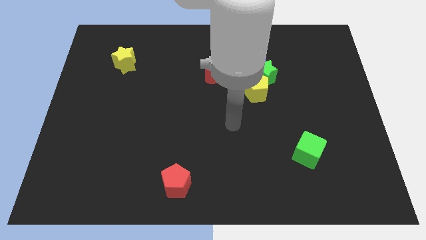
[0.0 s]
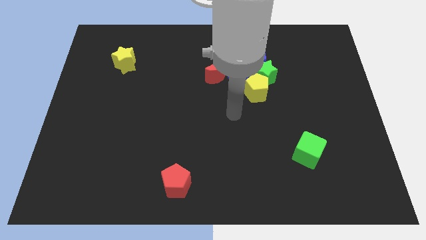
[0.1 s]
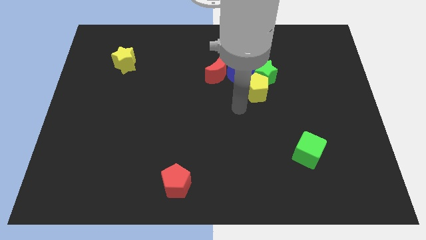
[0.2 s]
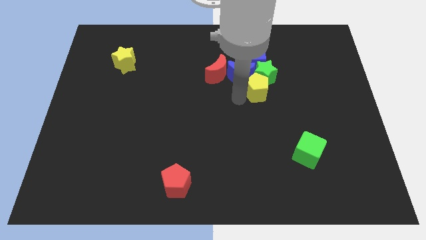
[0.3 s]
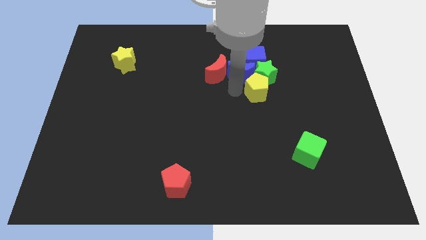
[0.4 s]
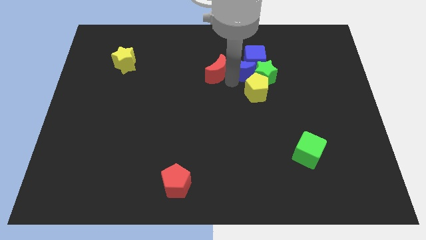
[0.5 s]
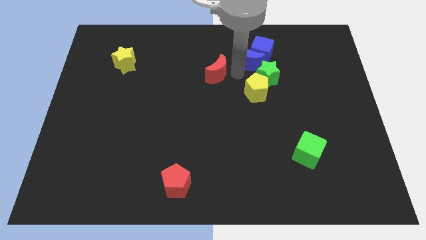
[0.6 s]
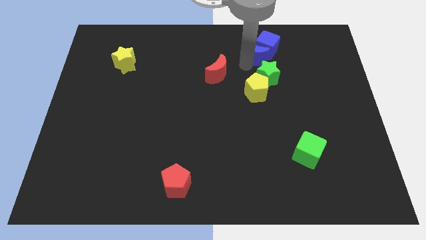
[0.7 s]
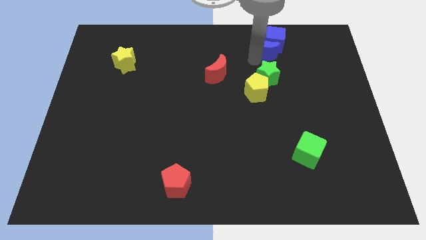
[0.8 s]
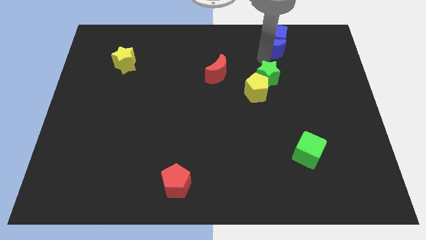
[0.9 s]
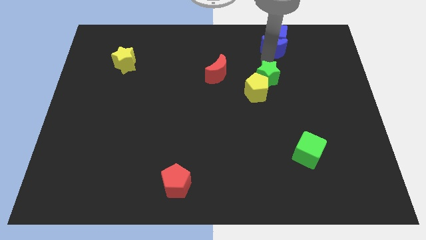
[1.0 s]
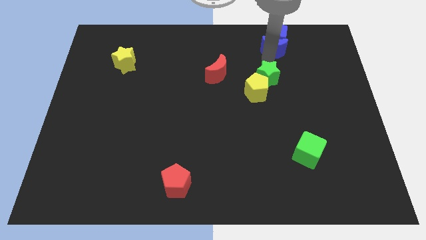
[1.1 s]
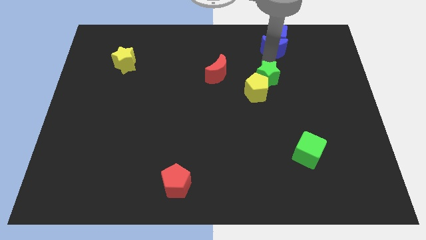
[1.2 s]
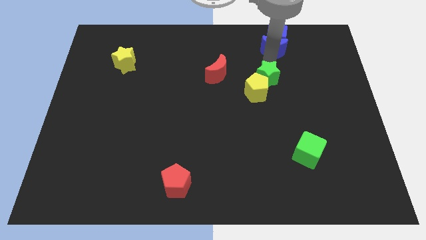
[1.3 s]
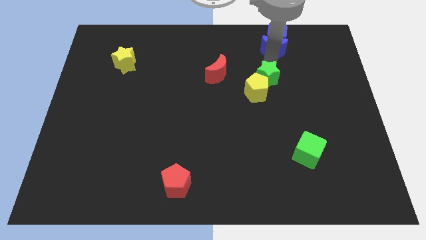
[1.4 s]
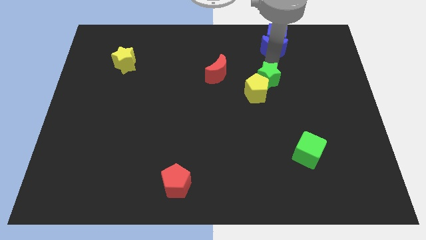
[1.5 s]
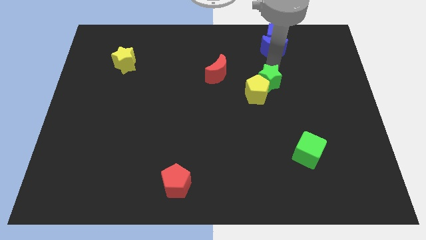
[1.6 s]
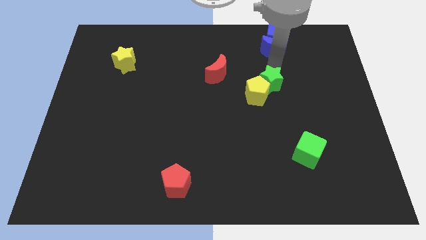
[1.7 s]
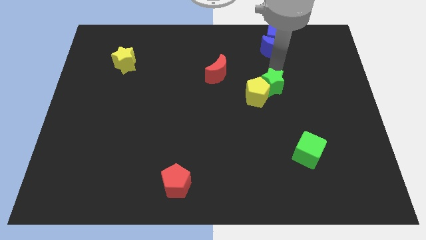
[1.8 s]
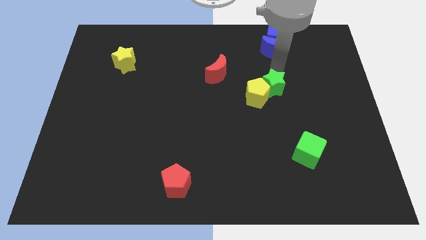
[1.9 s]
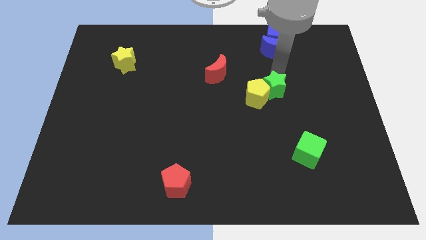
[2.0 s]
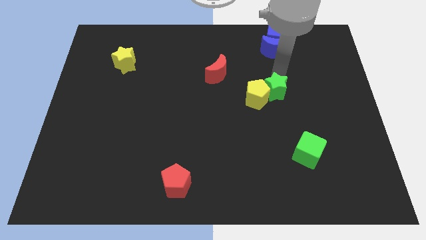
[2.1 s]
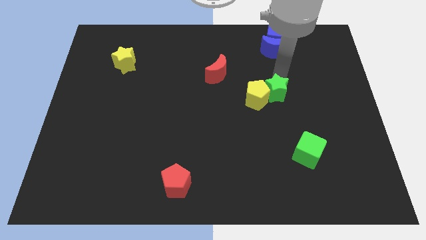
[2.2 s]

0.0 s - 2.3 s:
move the green star away from the yellow pentagon, blue cube, and blue moon

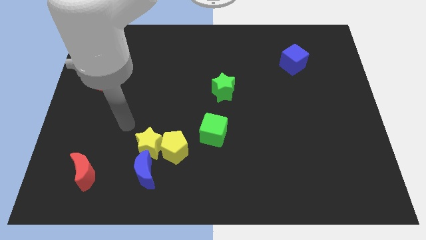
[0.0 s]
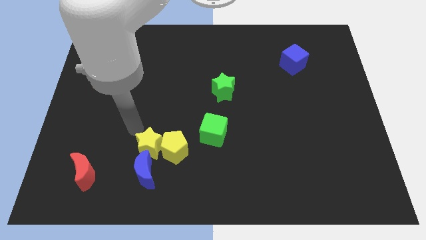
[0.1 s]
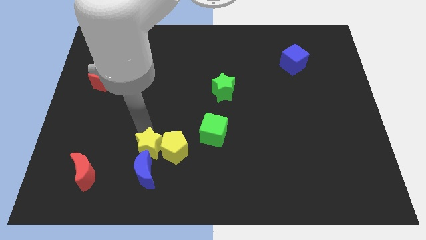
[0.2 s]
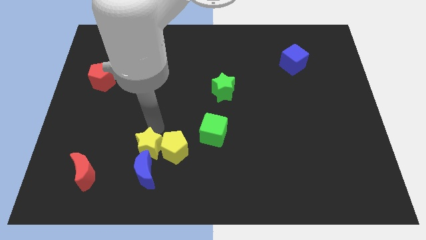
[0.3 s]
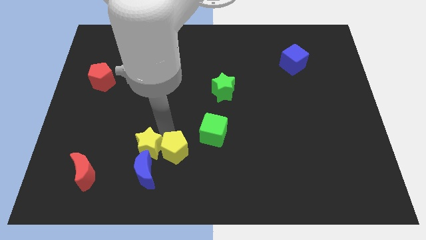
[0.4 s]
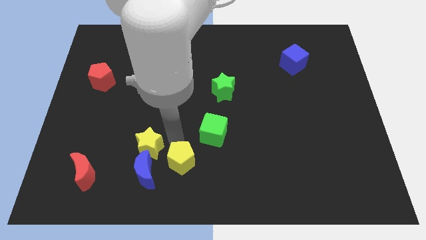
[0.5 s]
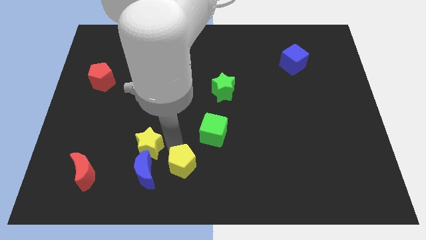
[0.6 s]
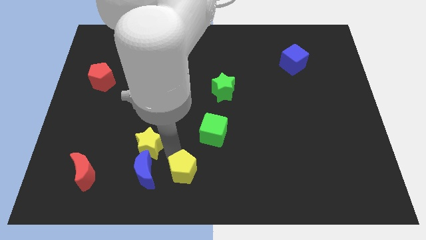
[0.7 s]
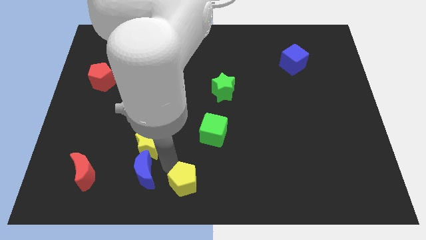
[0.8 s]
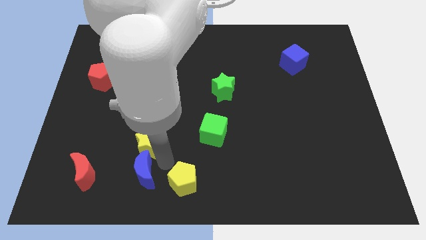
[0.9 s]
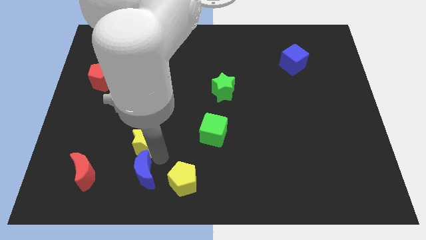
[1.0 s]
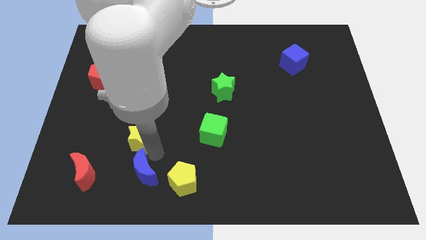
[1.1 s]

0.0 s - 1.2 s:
separate the yellow star from the yellow pentagon and blue moon

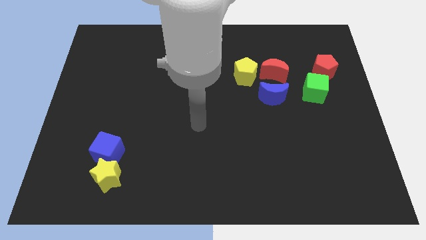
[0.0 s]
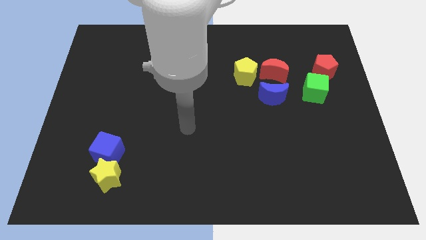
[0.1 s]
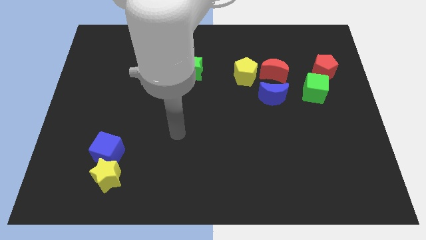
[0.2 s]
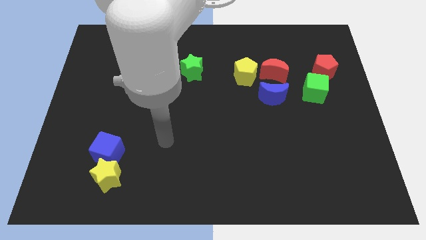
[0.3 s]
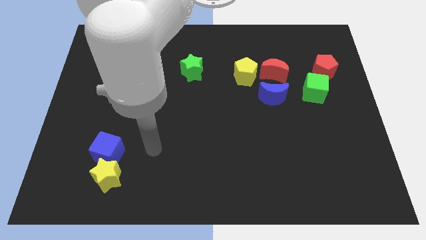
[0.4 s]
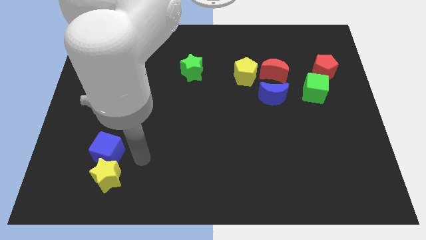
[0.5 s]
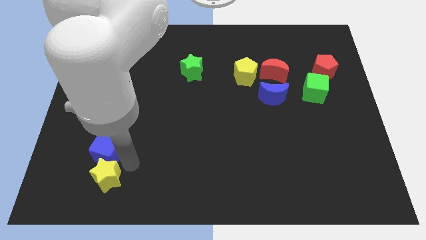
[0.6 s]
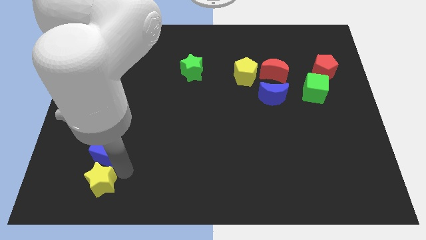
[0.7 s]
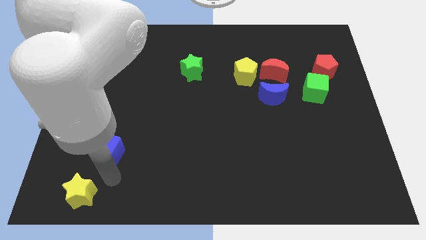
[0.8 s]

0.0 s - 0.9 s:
pull the blue cube apart from the yellow star

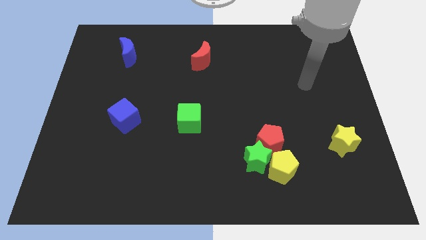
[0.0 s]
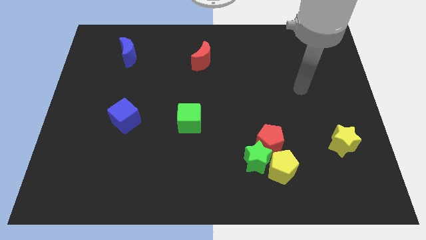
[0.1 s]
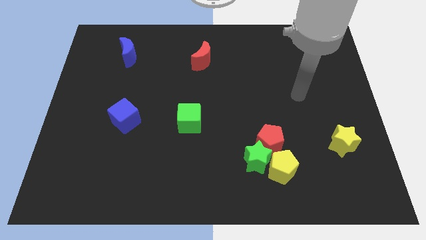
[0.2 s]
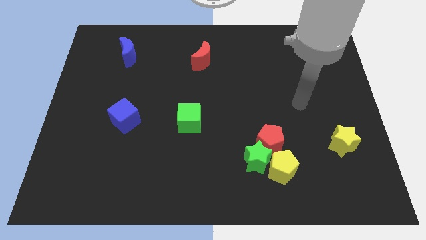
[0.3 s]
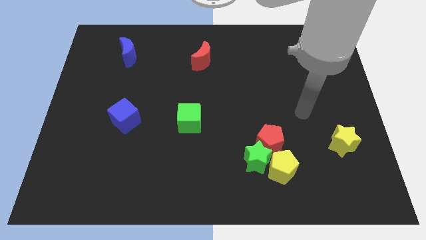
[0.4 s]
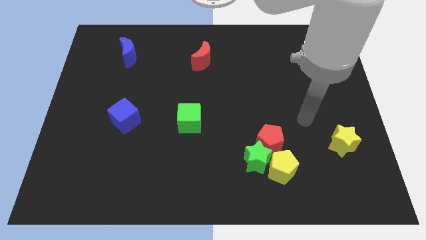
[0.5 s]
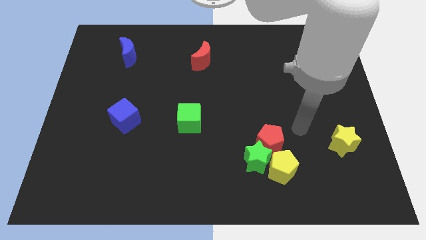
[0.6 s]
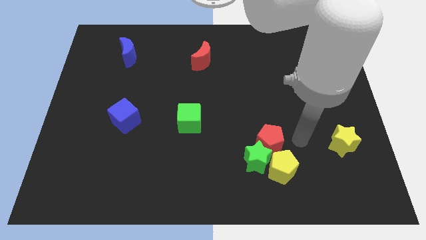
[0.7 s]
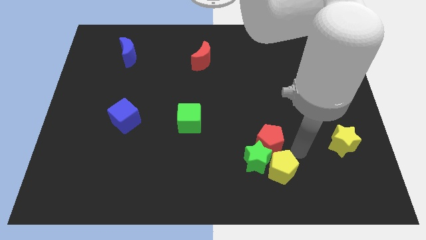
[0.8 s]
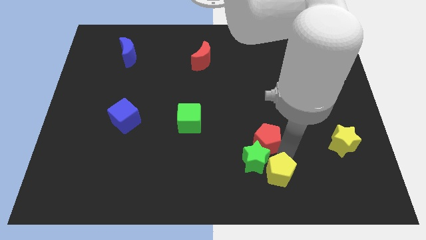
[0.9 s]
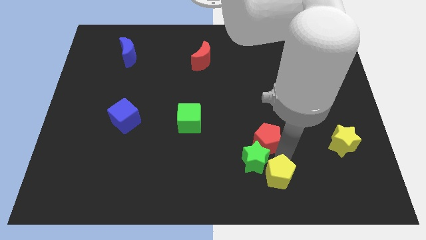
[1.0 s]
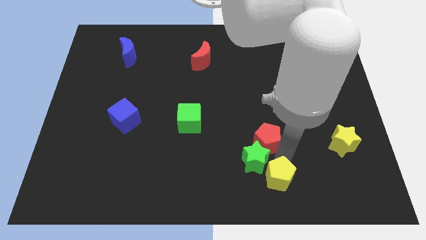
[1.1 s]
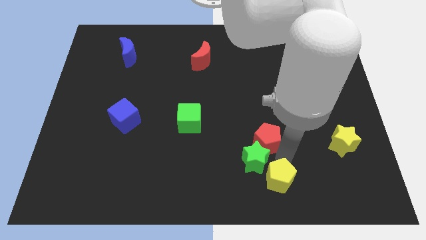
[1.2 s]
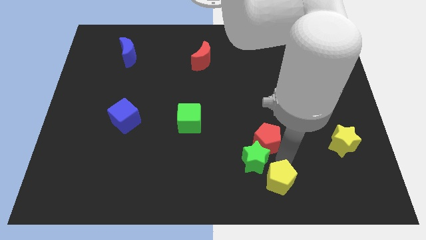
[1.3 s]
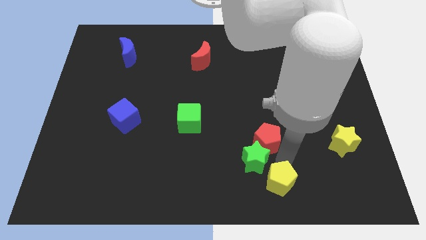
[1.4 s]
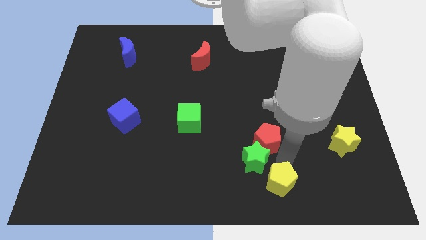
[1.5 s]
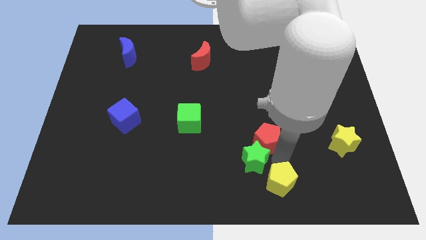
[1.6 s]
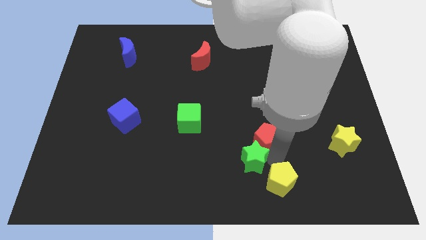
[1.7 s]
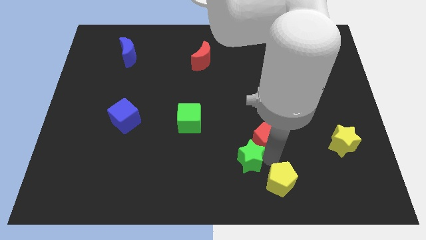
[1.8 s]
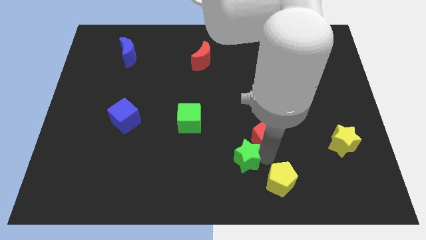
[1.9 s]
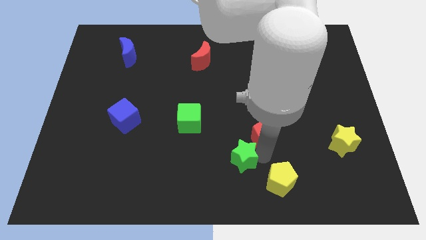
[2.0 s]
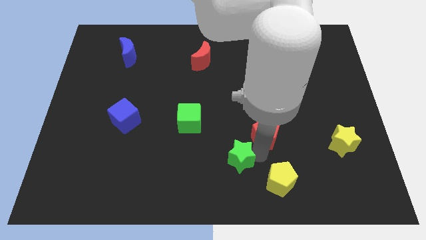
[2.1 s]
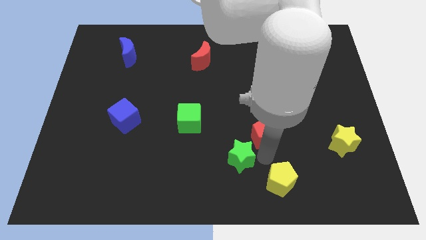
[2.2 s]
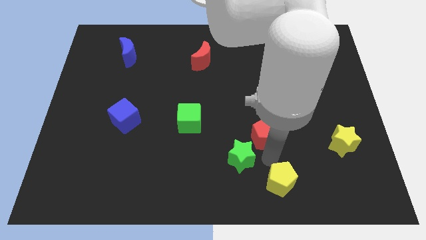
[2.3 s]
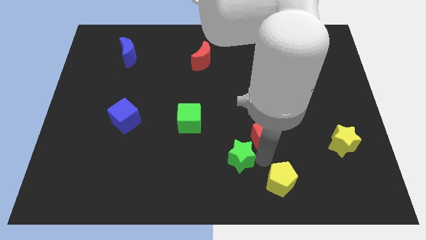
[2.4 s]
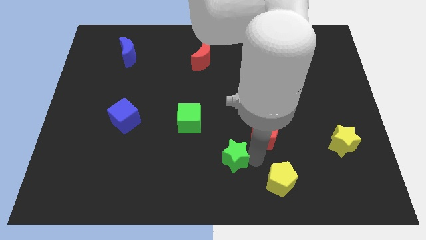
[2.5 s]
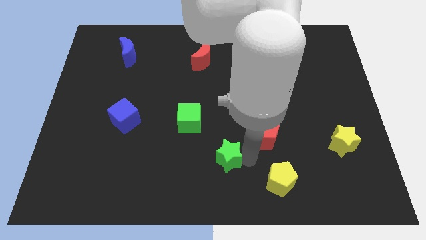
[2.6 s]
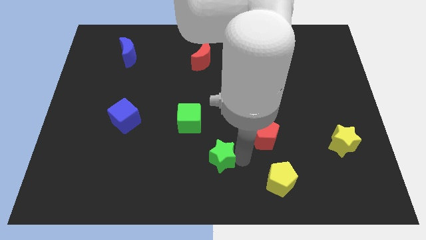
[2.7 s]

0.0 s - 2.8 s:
move the green star away from the red pentagon and yellow pentagon

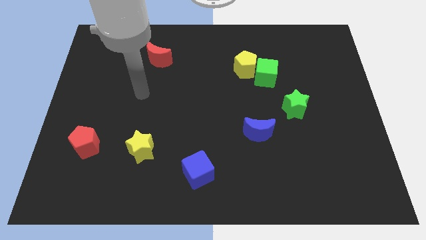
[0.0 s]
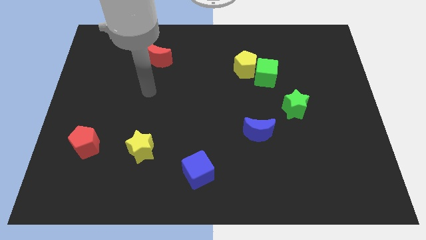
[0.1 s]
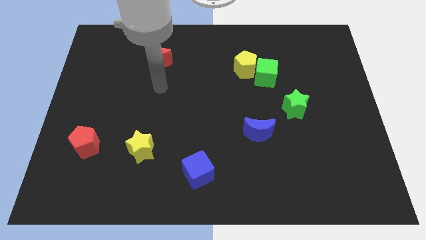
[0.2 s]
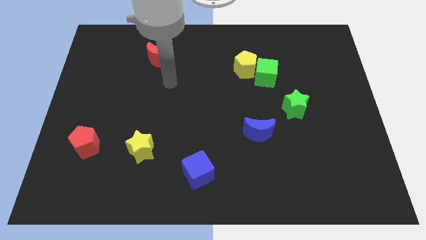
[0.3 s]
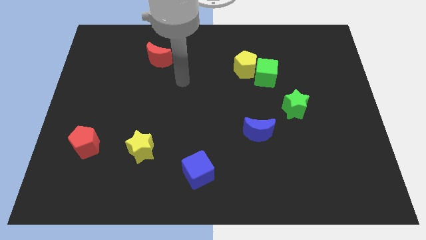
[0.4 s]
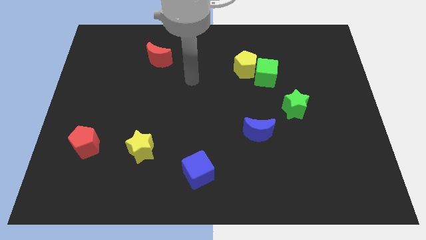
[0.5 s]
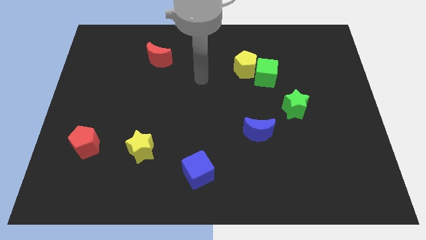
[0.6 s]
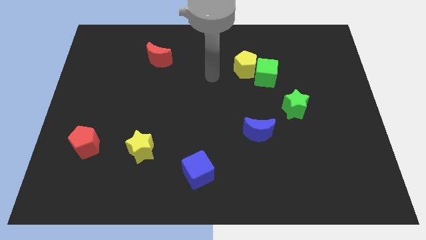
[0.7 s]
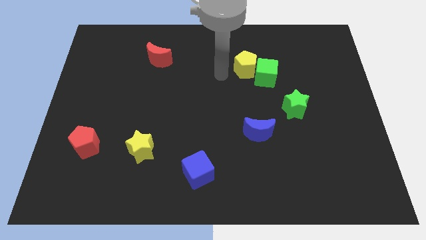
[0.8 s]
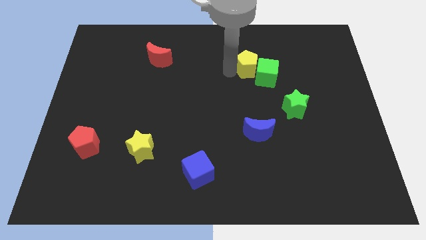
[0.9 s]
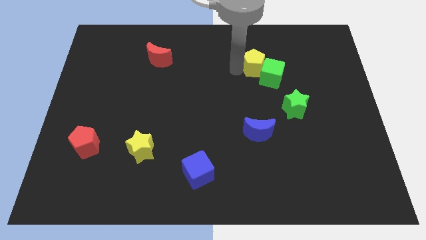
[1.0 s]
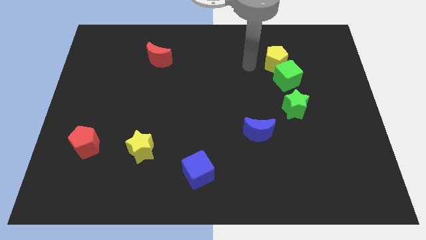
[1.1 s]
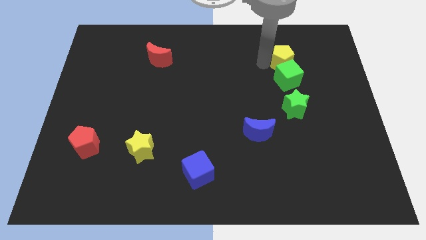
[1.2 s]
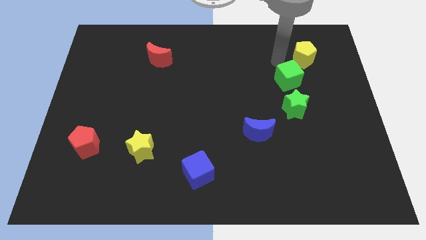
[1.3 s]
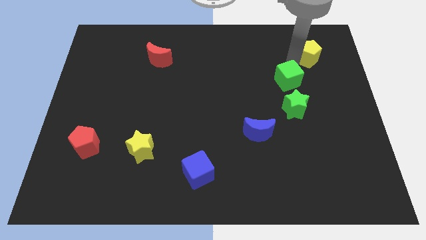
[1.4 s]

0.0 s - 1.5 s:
pull the green cube apart from the yellow pentagon

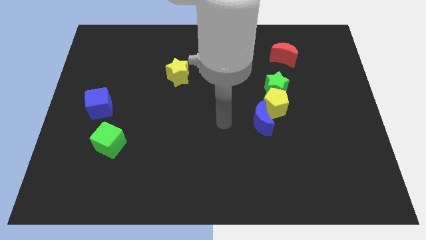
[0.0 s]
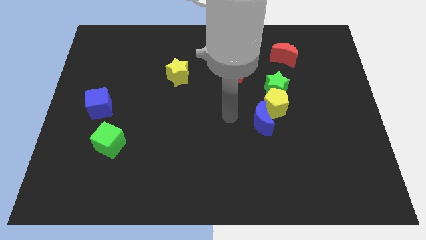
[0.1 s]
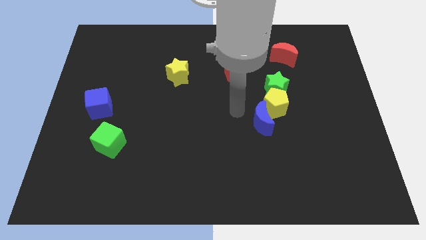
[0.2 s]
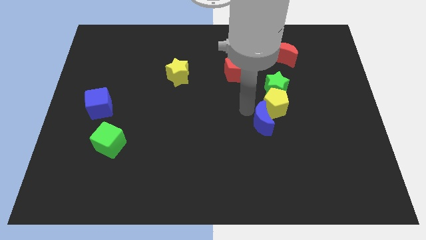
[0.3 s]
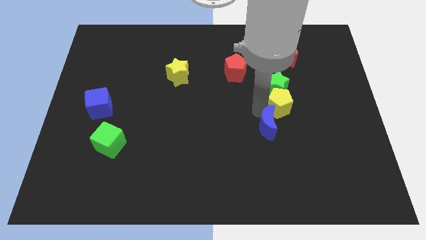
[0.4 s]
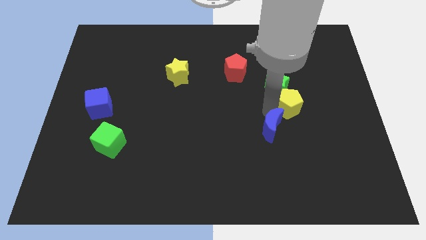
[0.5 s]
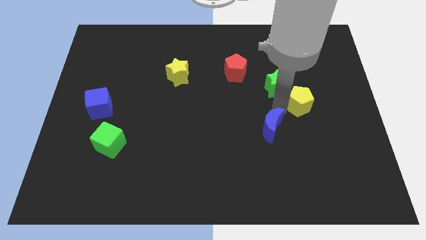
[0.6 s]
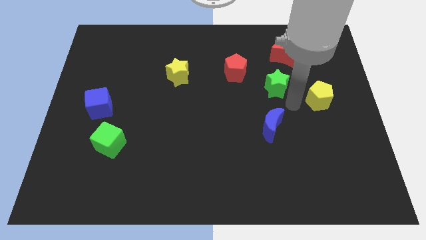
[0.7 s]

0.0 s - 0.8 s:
pull the green star apart from the yellow pentagon

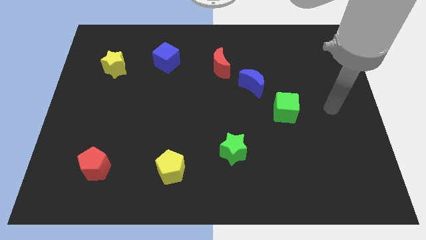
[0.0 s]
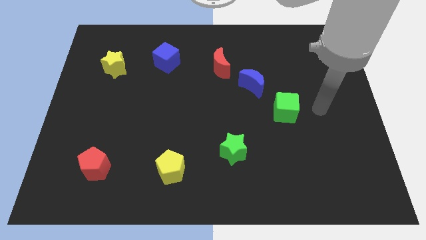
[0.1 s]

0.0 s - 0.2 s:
move the red moon away from the blue moon
